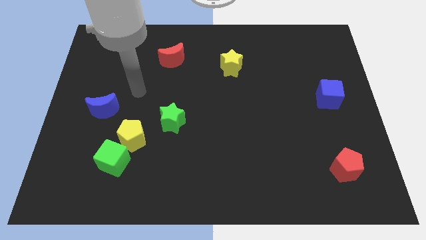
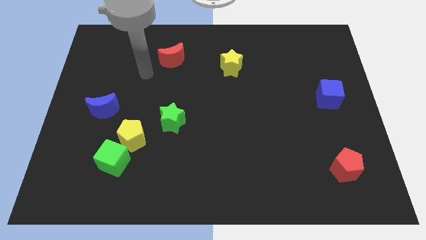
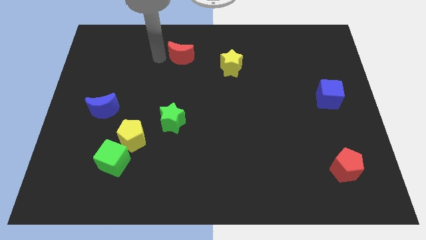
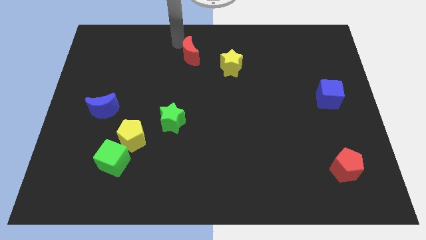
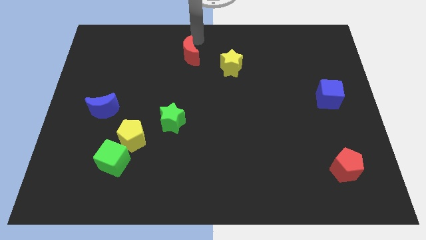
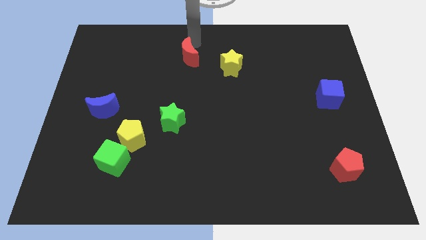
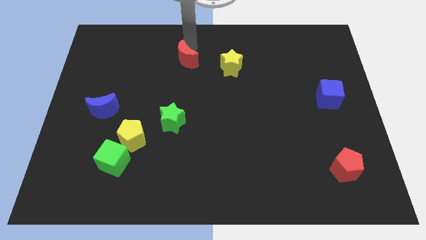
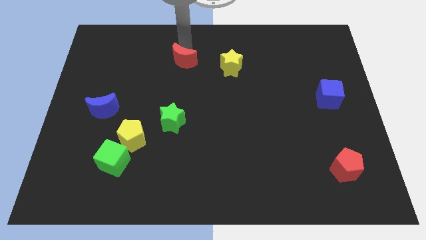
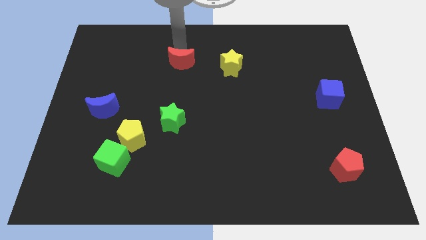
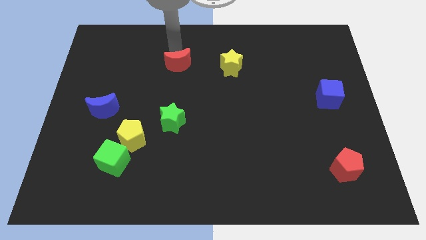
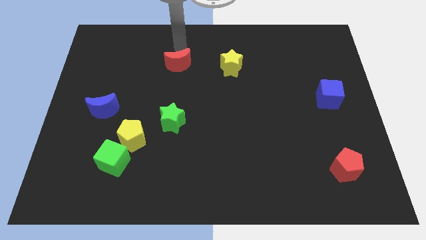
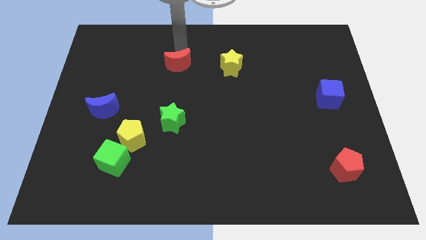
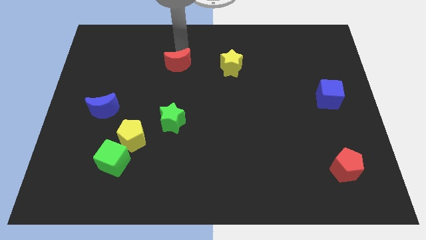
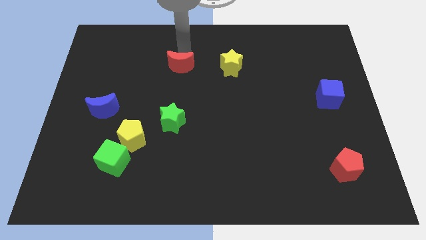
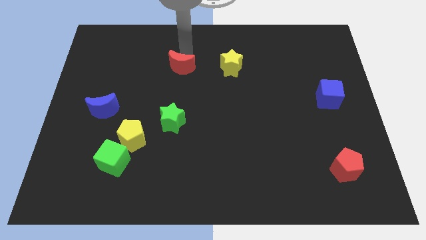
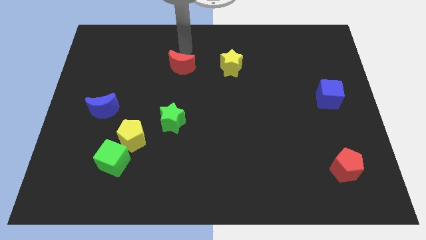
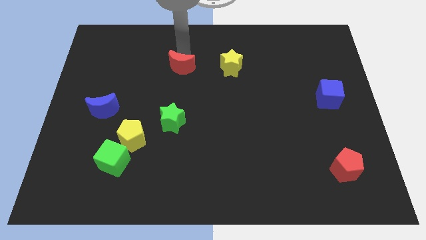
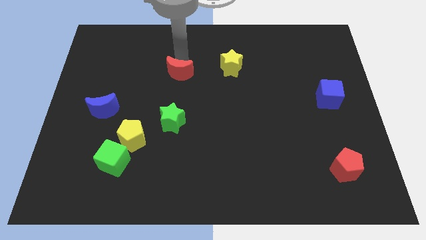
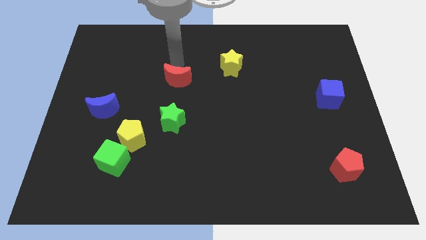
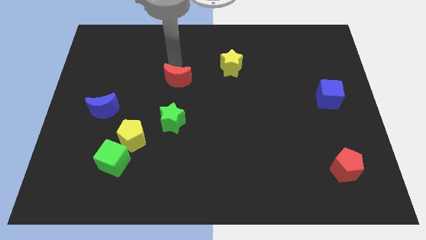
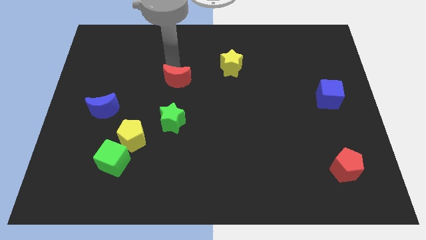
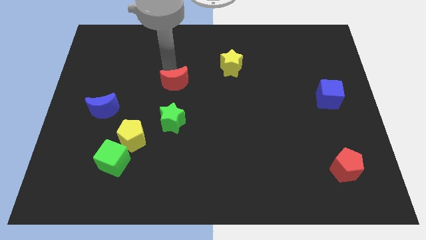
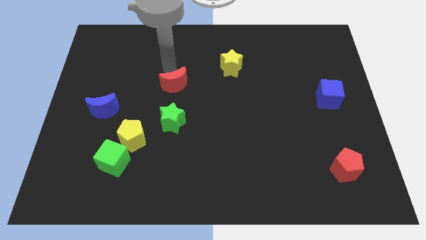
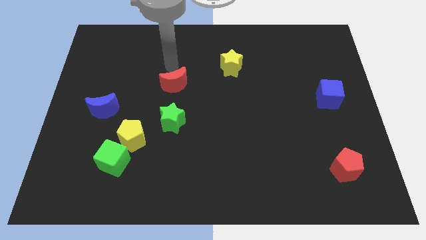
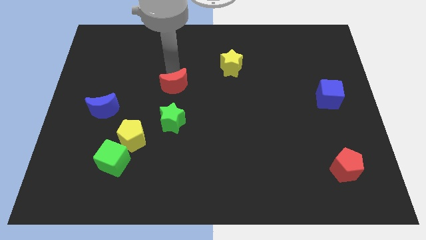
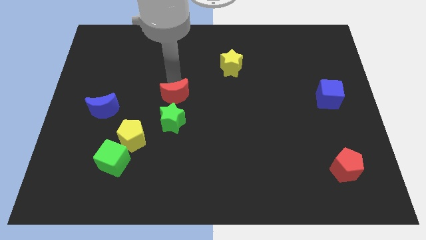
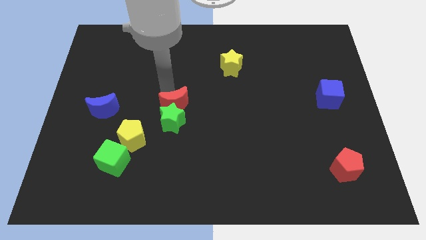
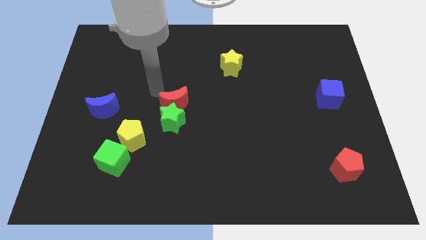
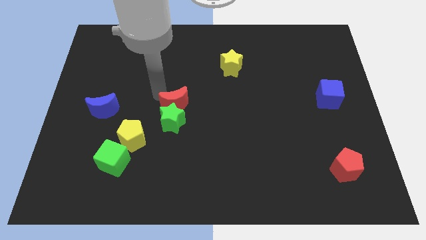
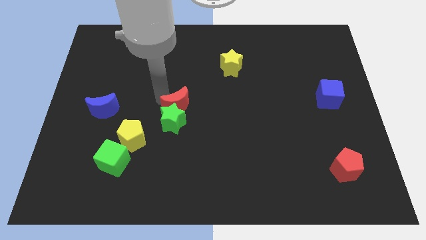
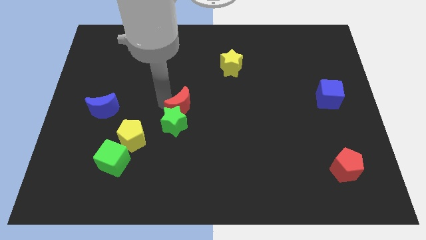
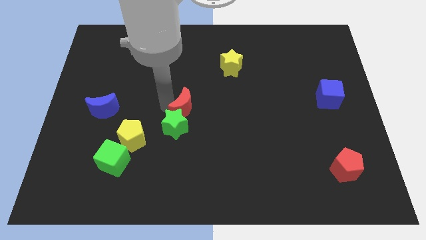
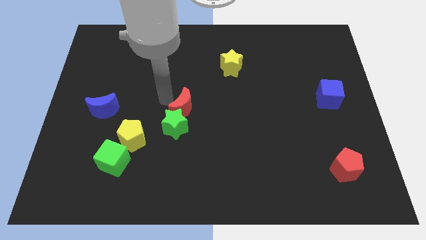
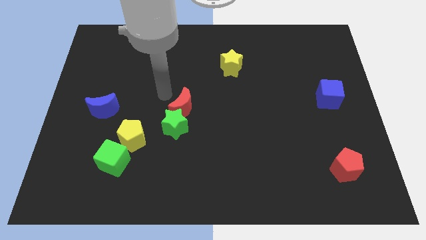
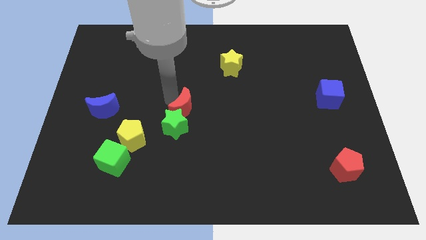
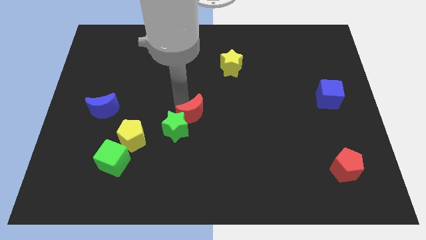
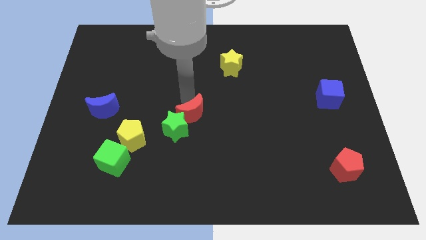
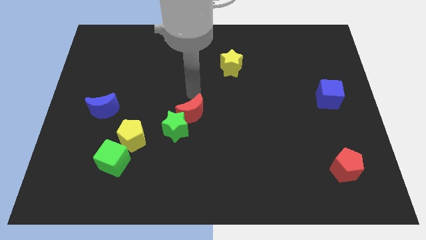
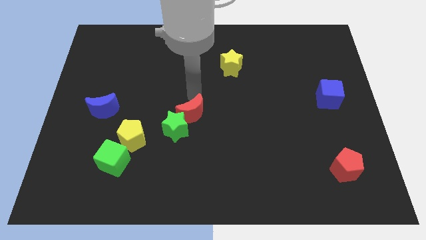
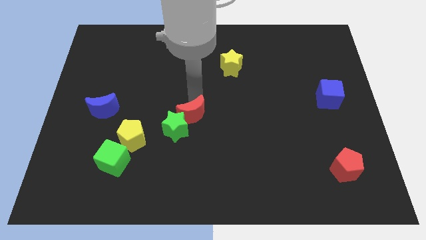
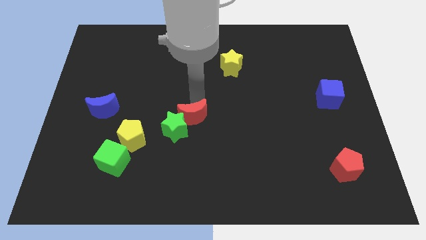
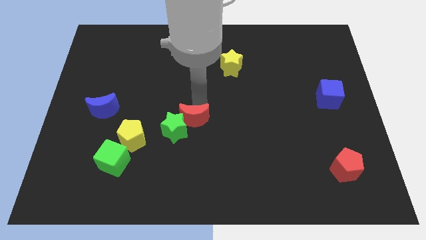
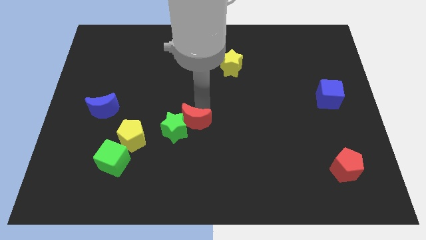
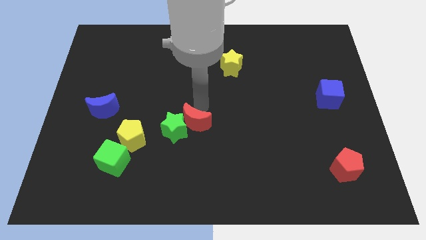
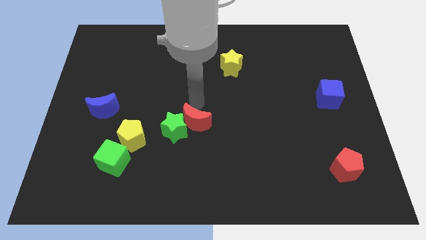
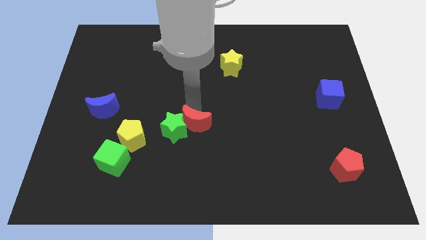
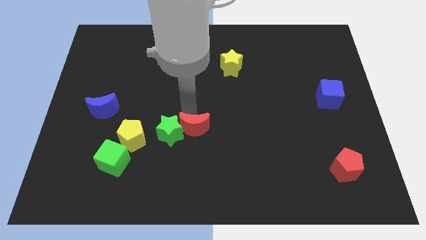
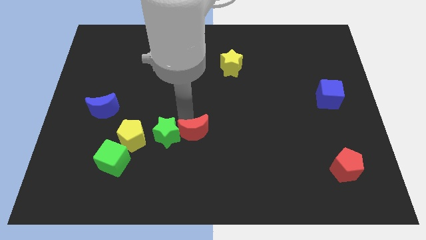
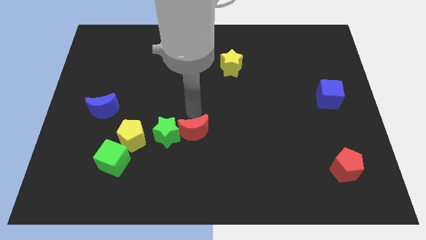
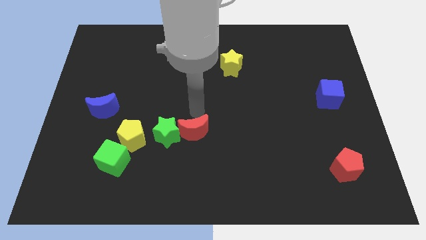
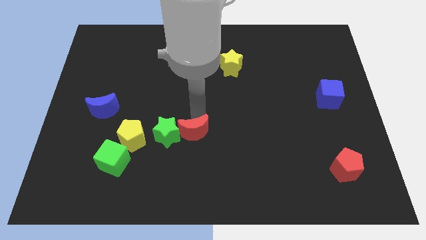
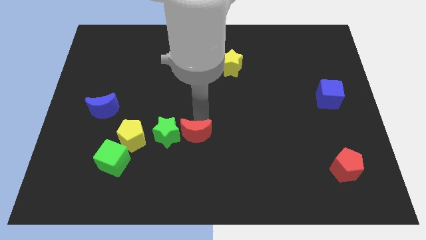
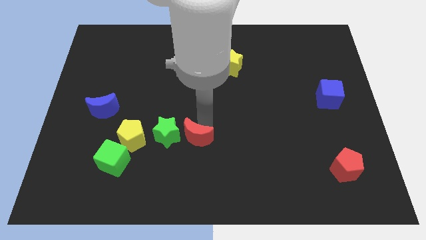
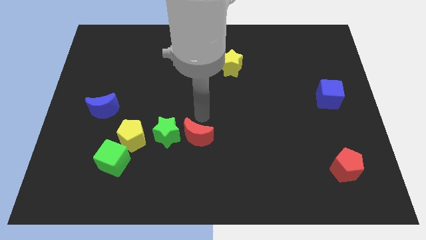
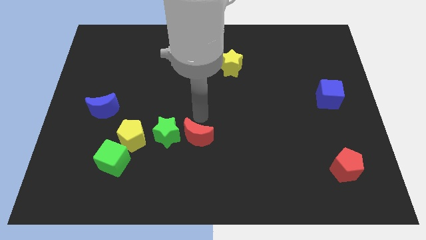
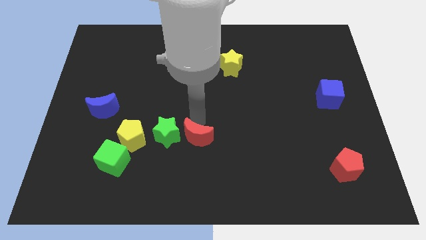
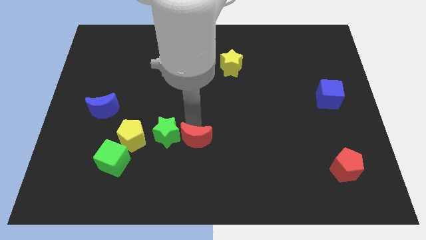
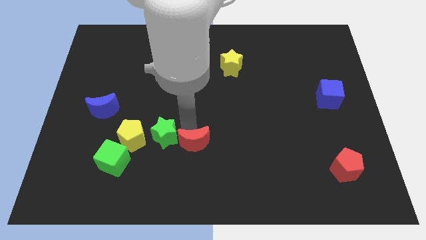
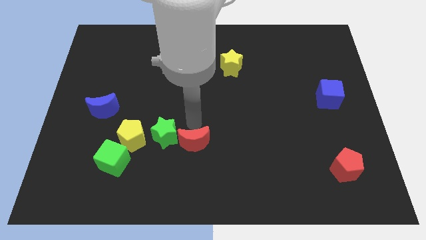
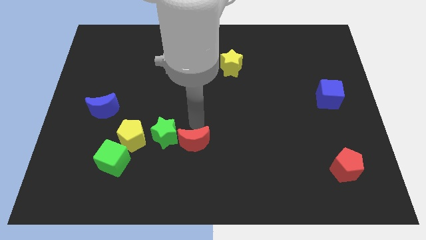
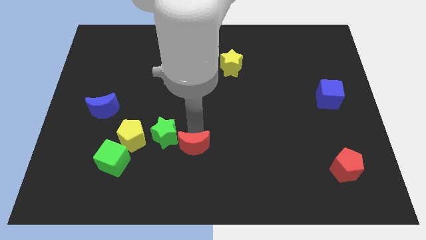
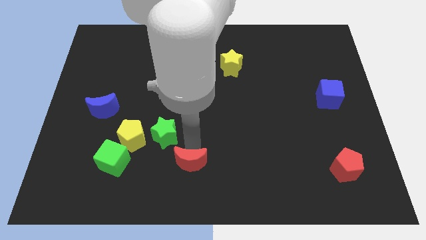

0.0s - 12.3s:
slide the red moon to the bottom
